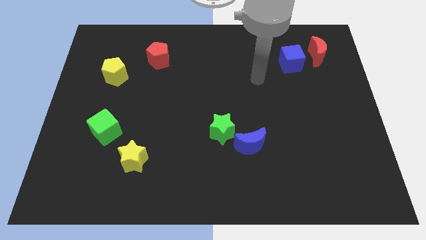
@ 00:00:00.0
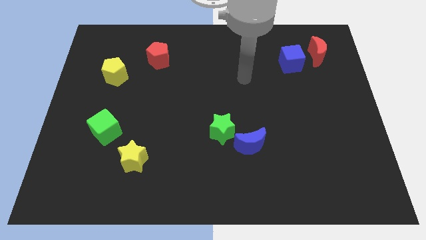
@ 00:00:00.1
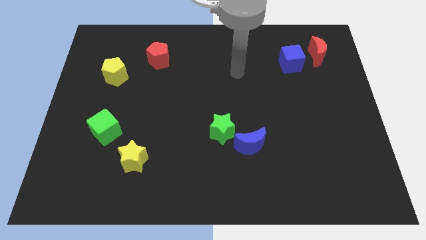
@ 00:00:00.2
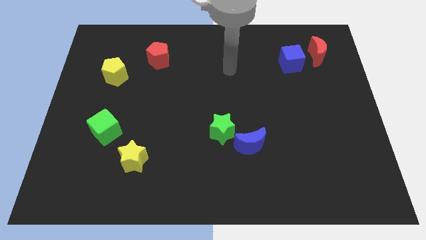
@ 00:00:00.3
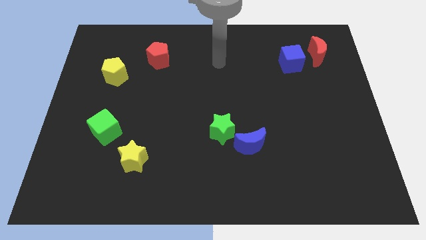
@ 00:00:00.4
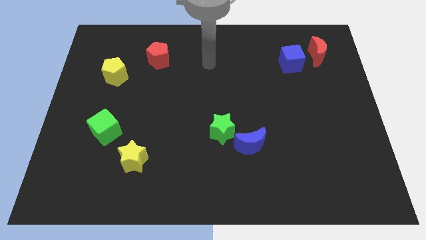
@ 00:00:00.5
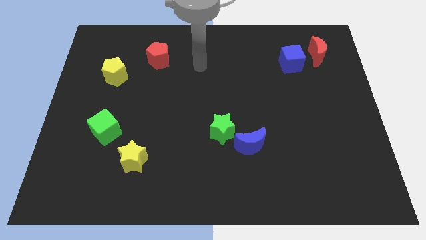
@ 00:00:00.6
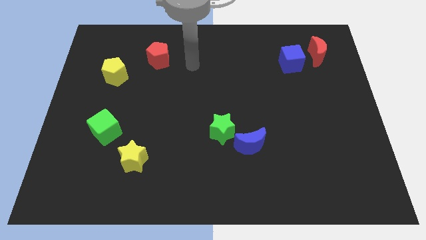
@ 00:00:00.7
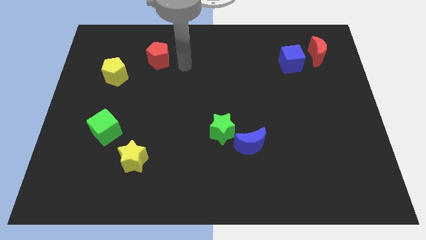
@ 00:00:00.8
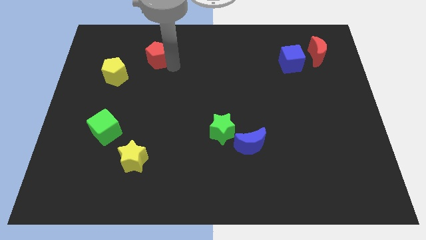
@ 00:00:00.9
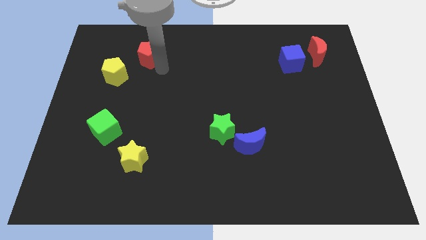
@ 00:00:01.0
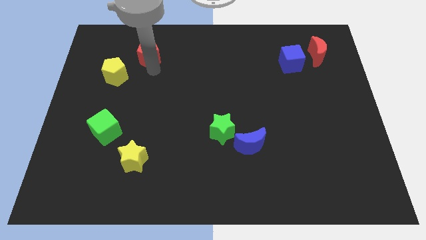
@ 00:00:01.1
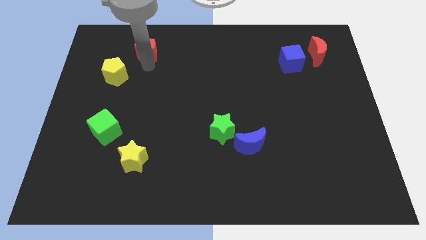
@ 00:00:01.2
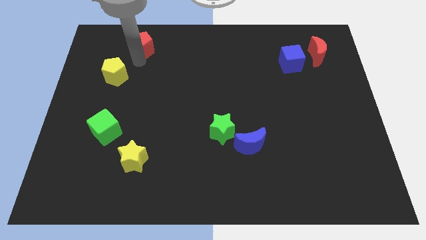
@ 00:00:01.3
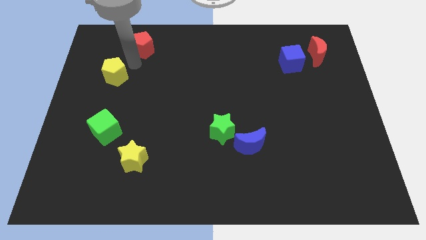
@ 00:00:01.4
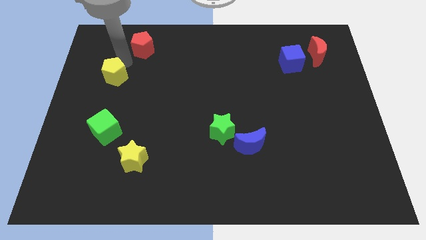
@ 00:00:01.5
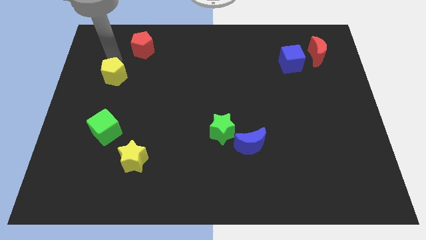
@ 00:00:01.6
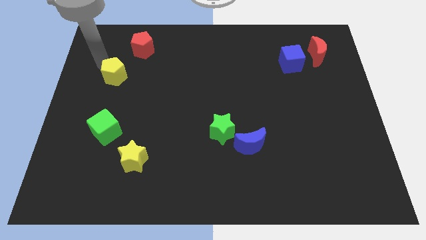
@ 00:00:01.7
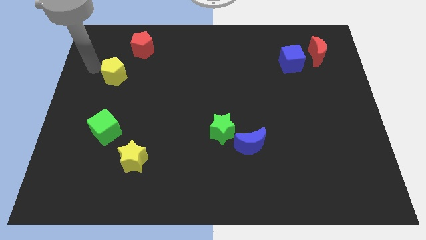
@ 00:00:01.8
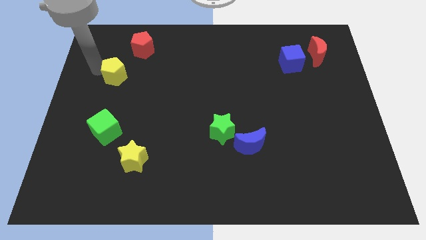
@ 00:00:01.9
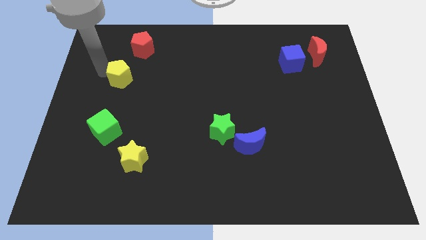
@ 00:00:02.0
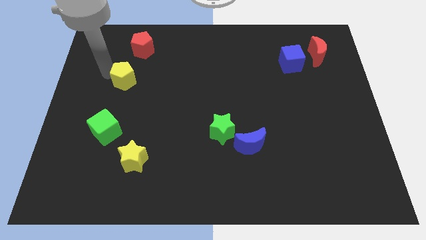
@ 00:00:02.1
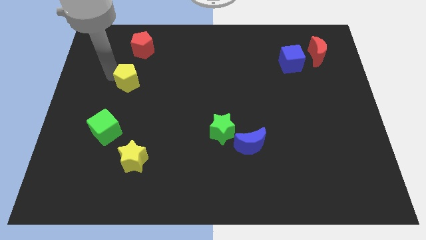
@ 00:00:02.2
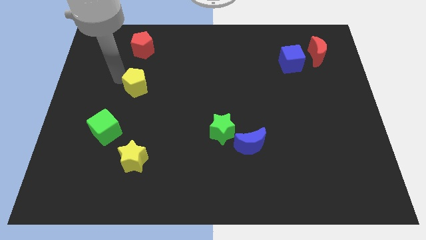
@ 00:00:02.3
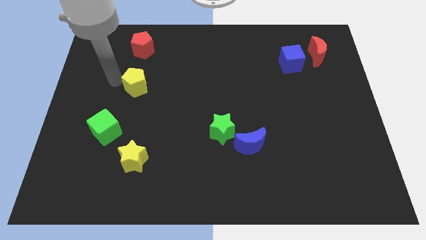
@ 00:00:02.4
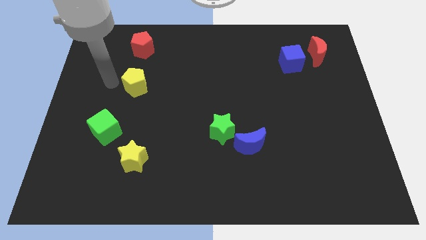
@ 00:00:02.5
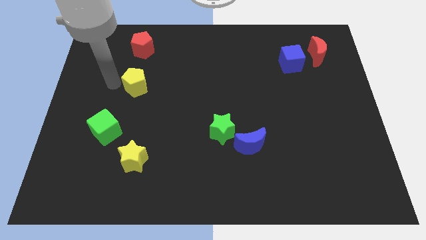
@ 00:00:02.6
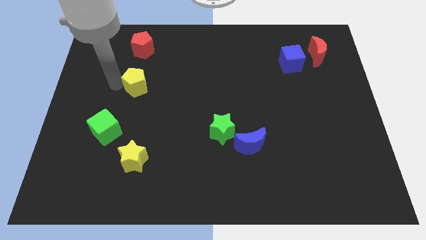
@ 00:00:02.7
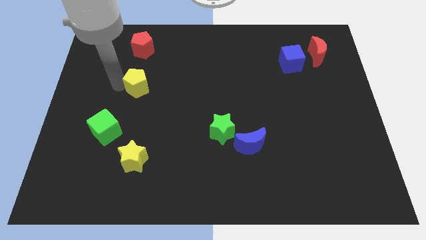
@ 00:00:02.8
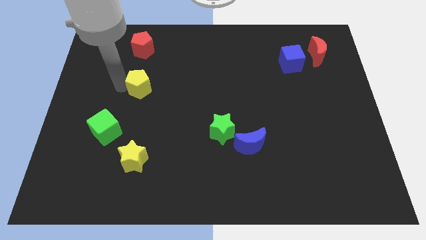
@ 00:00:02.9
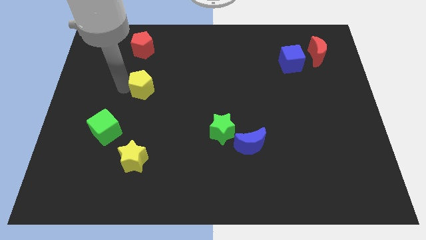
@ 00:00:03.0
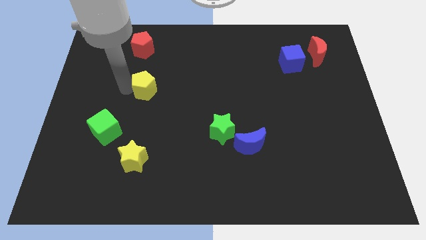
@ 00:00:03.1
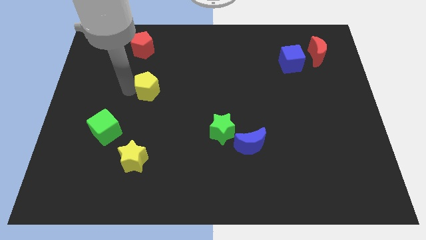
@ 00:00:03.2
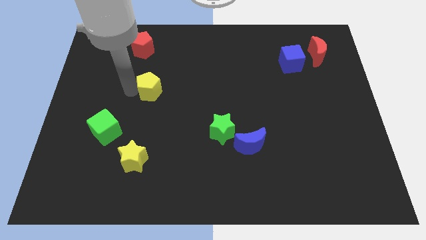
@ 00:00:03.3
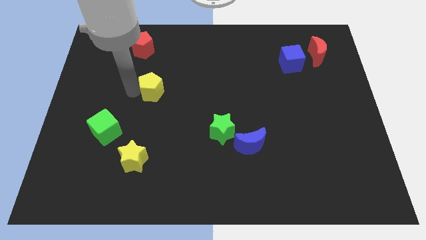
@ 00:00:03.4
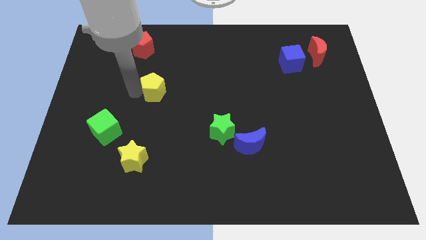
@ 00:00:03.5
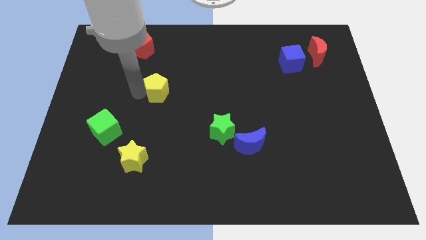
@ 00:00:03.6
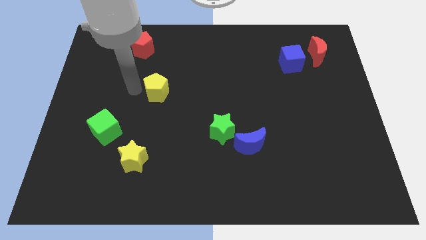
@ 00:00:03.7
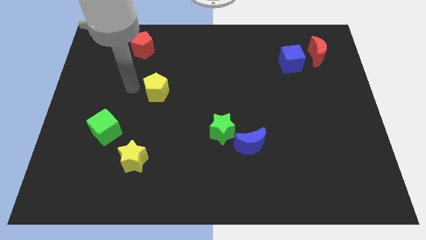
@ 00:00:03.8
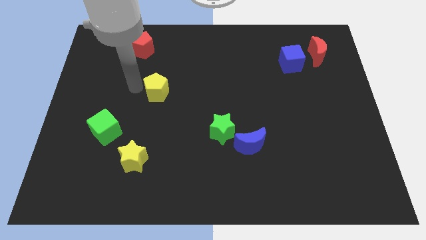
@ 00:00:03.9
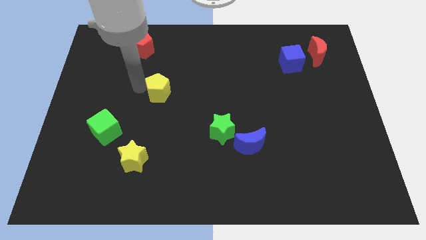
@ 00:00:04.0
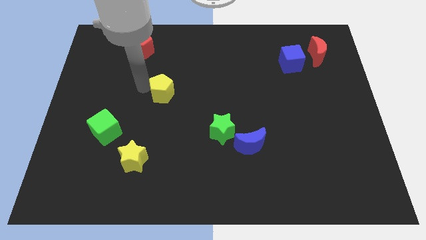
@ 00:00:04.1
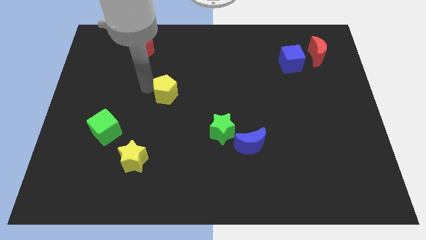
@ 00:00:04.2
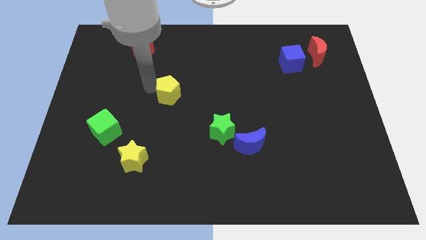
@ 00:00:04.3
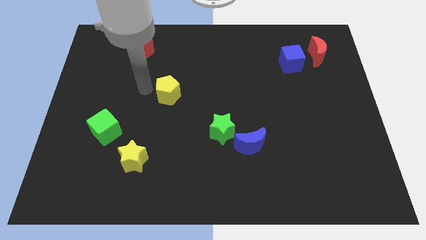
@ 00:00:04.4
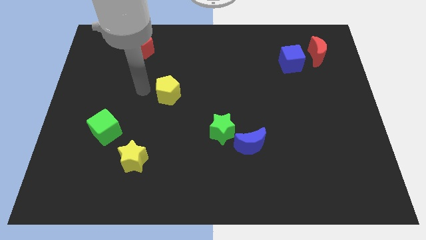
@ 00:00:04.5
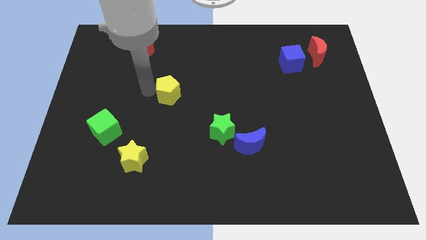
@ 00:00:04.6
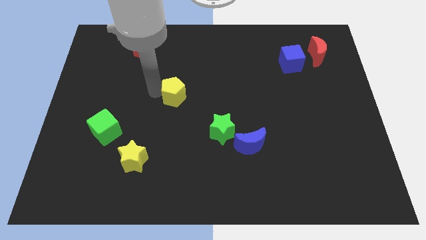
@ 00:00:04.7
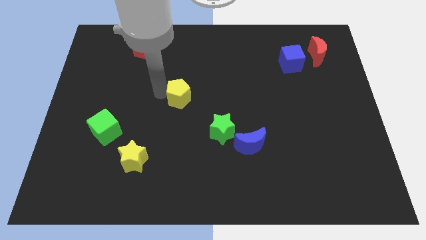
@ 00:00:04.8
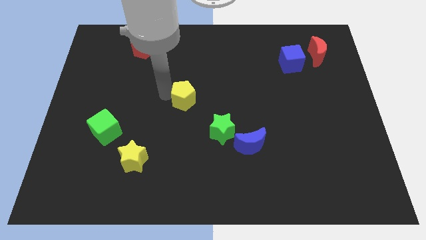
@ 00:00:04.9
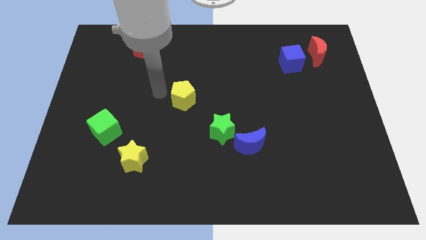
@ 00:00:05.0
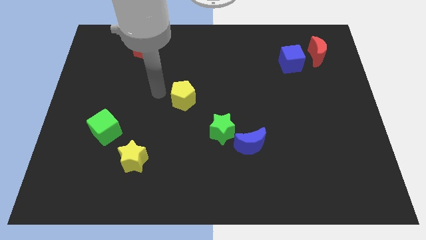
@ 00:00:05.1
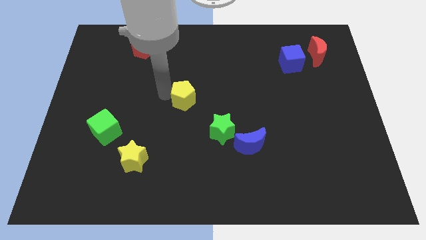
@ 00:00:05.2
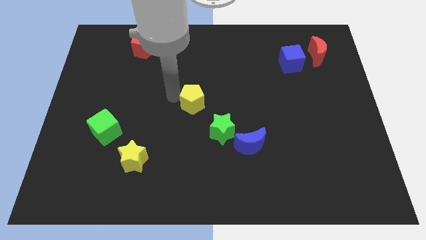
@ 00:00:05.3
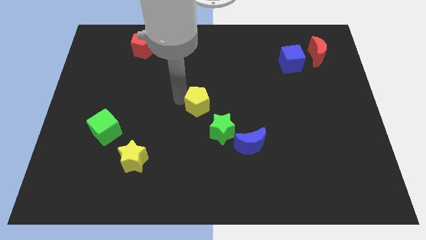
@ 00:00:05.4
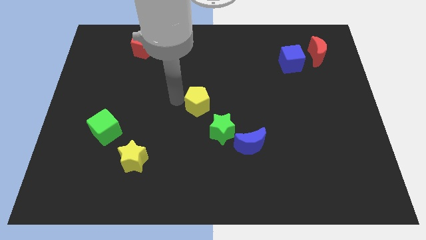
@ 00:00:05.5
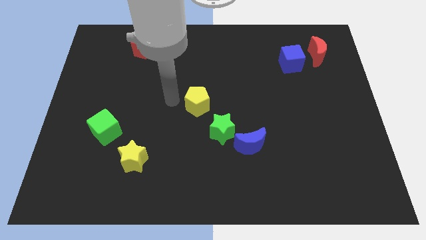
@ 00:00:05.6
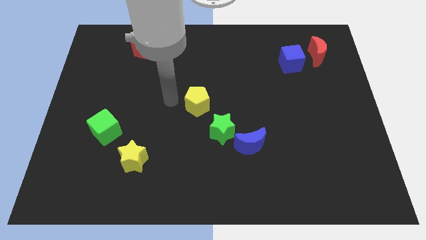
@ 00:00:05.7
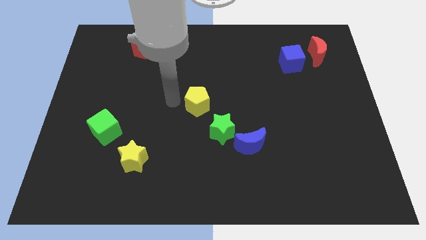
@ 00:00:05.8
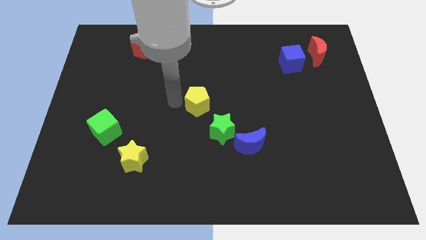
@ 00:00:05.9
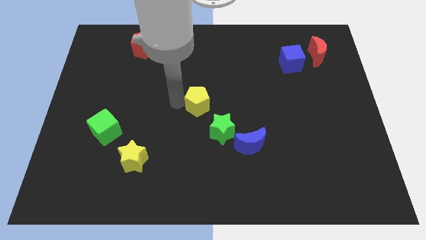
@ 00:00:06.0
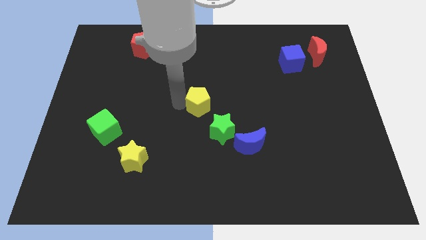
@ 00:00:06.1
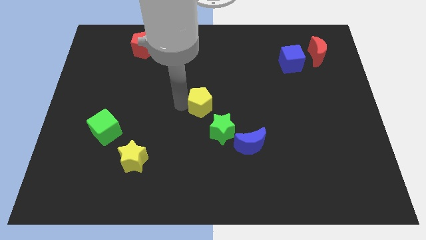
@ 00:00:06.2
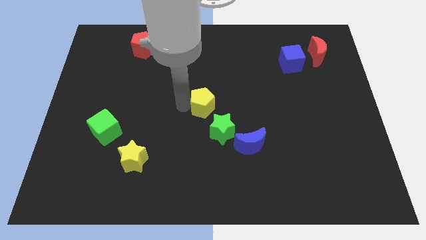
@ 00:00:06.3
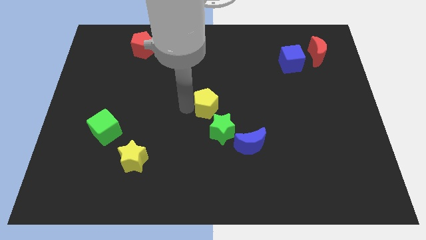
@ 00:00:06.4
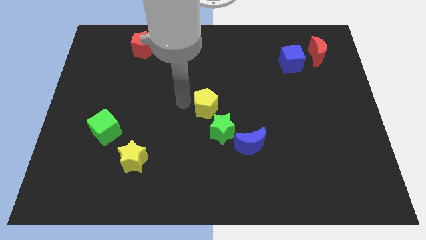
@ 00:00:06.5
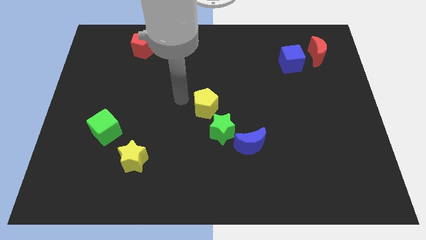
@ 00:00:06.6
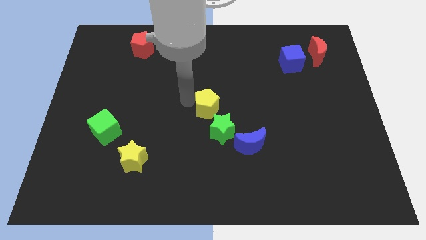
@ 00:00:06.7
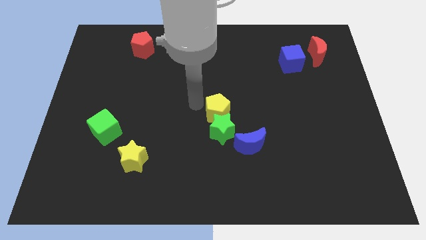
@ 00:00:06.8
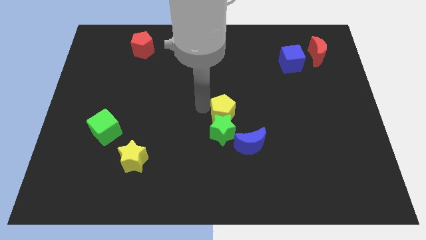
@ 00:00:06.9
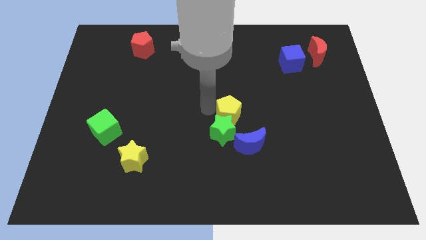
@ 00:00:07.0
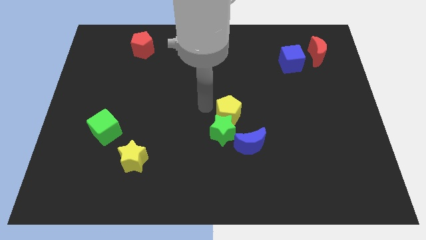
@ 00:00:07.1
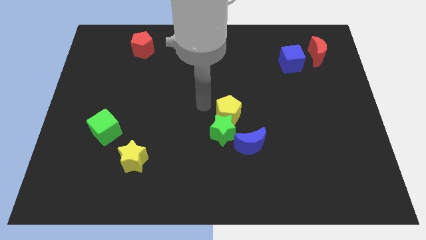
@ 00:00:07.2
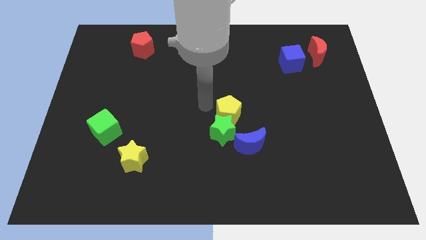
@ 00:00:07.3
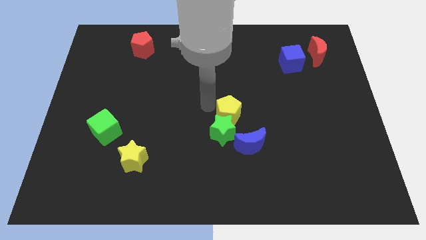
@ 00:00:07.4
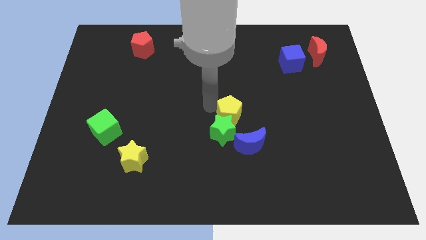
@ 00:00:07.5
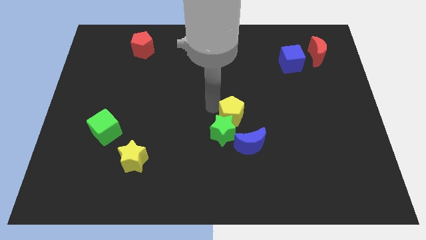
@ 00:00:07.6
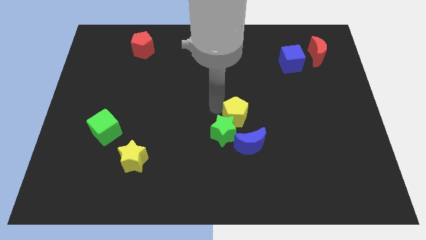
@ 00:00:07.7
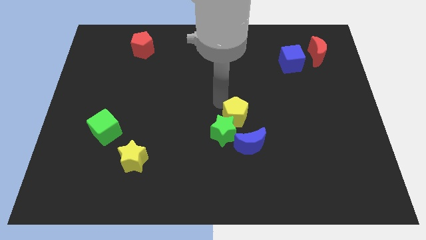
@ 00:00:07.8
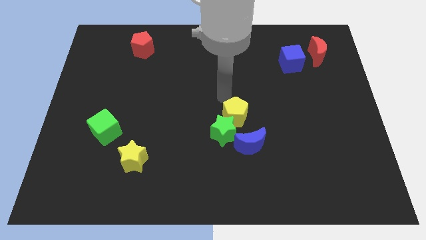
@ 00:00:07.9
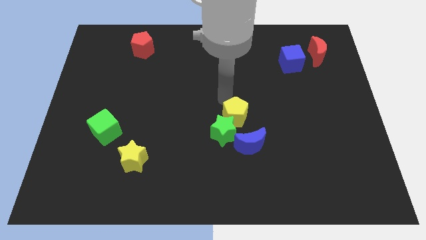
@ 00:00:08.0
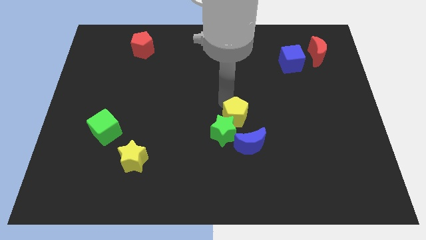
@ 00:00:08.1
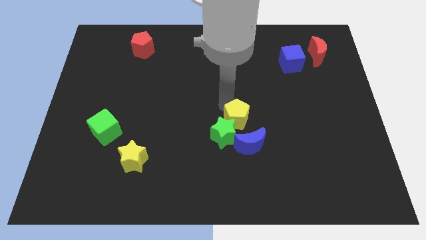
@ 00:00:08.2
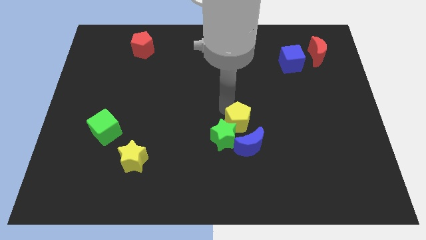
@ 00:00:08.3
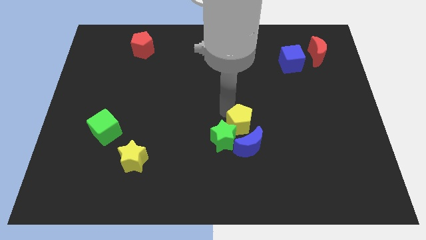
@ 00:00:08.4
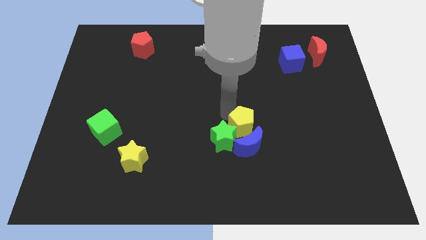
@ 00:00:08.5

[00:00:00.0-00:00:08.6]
slide the yellow pentagon towards the blue moon
